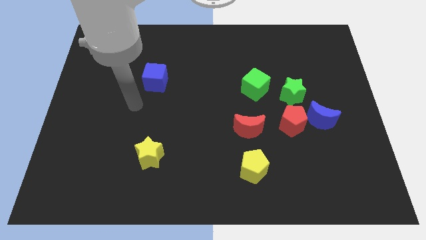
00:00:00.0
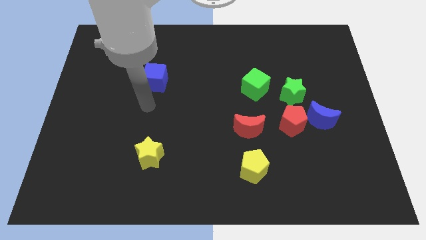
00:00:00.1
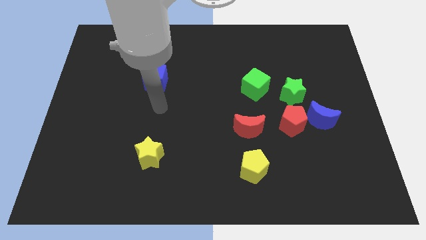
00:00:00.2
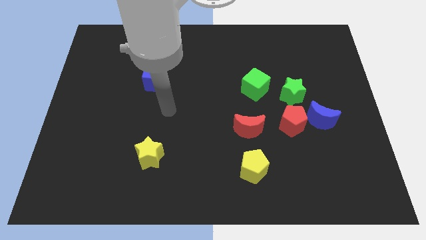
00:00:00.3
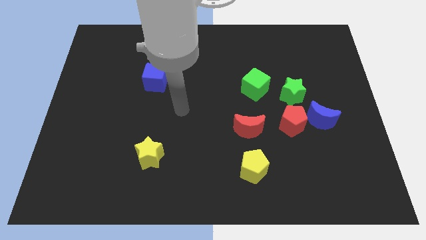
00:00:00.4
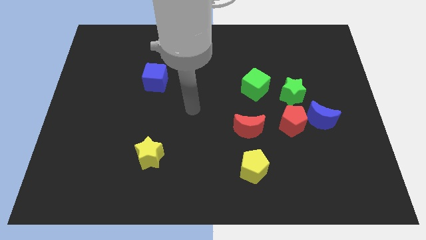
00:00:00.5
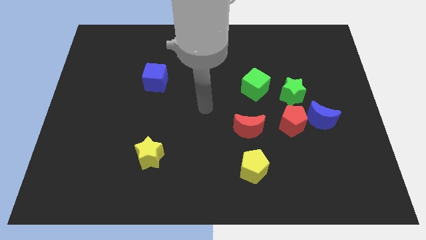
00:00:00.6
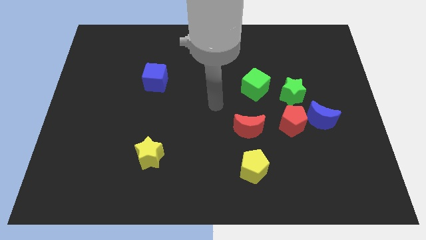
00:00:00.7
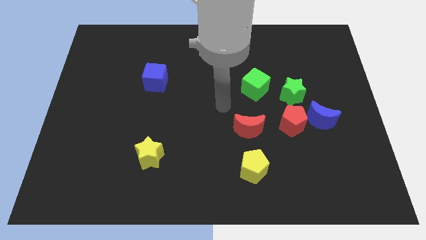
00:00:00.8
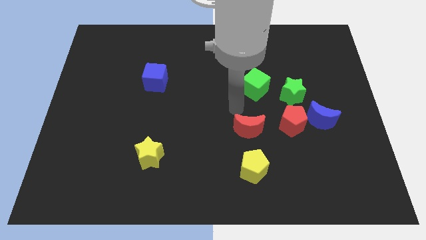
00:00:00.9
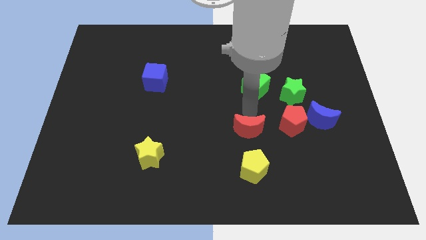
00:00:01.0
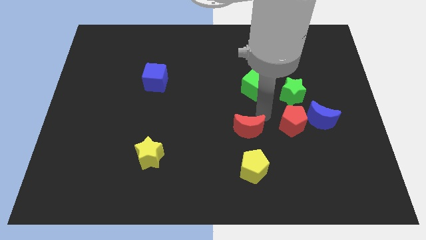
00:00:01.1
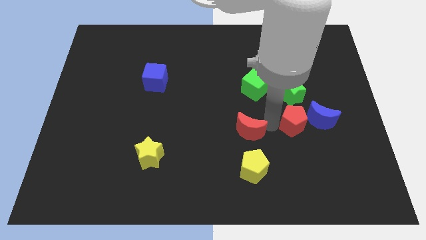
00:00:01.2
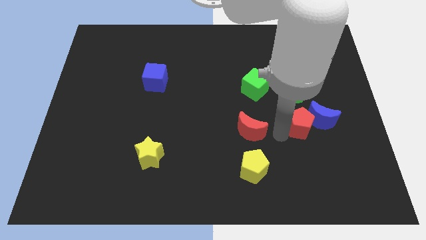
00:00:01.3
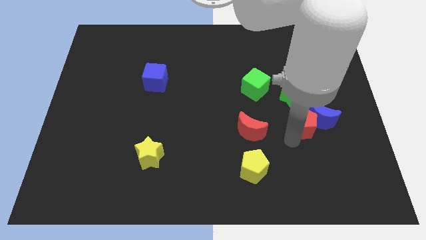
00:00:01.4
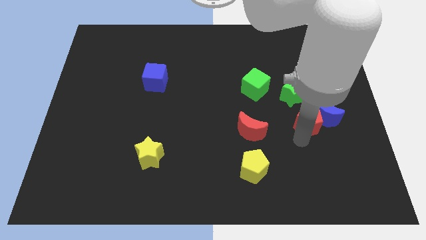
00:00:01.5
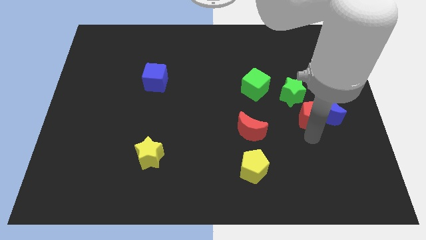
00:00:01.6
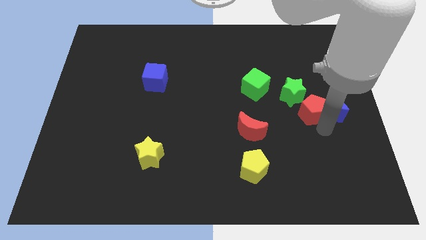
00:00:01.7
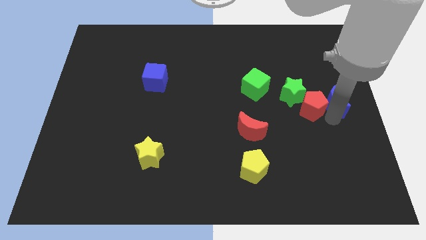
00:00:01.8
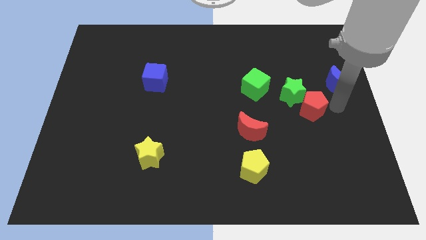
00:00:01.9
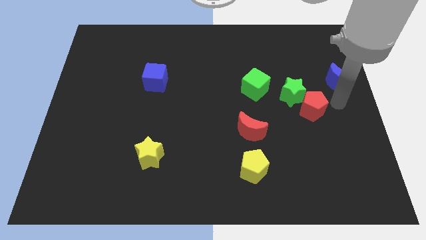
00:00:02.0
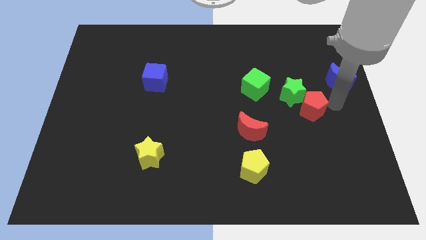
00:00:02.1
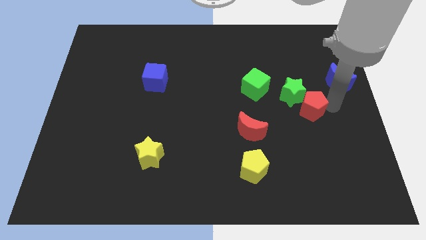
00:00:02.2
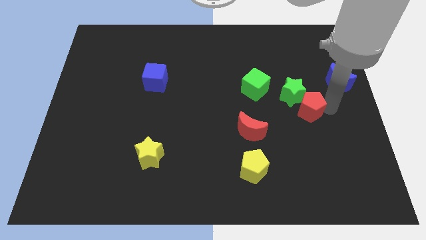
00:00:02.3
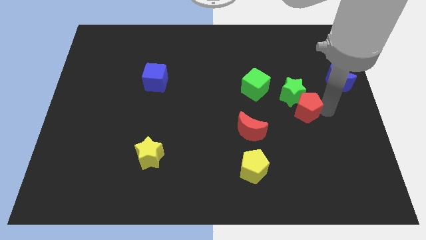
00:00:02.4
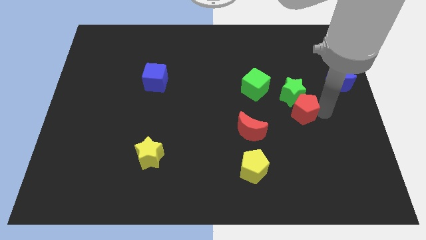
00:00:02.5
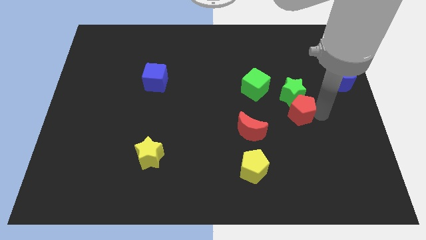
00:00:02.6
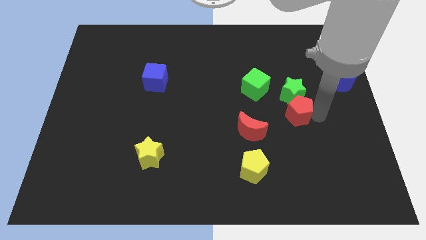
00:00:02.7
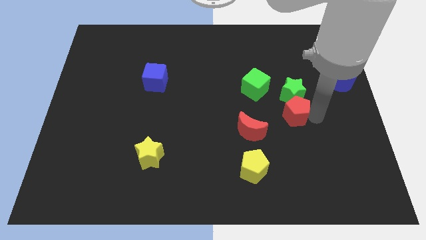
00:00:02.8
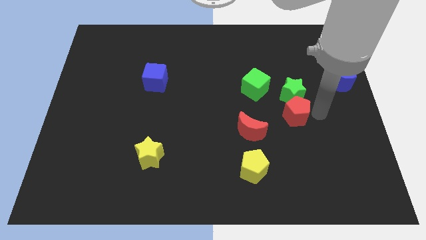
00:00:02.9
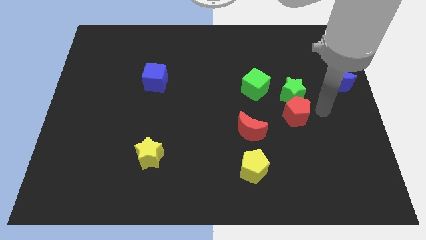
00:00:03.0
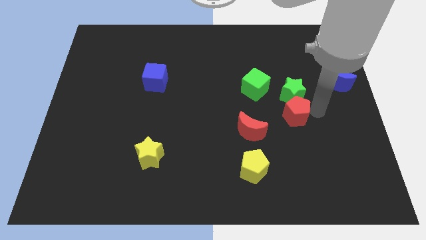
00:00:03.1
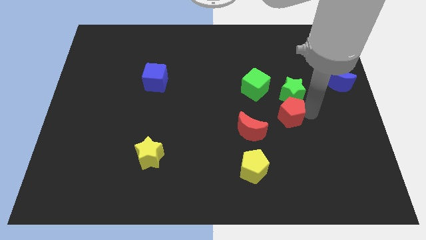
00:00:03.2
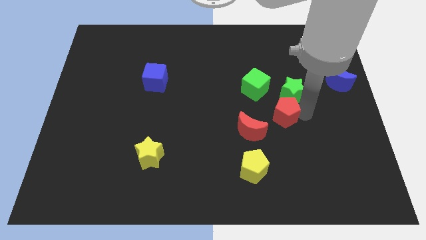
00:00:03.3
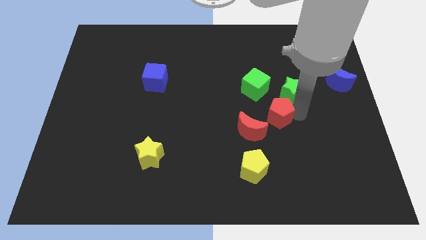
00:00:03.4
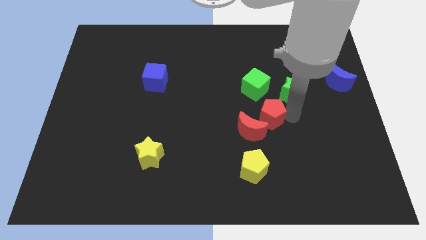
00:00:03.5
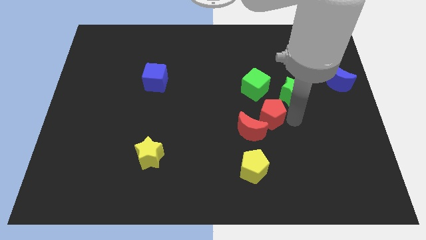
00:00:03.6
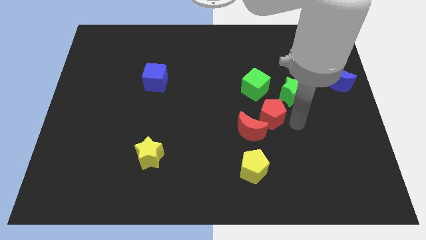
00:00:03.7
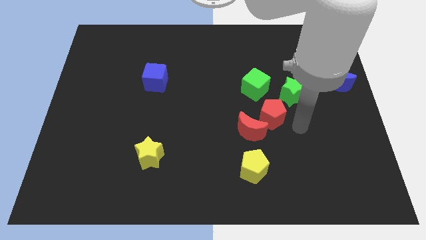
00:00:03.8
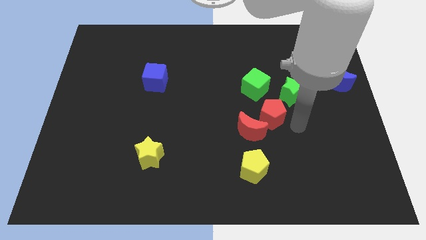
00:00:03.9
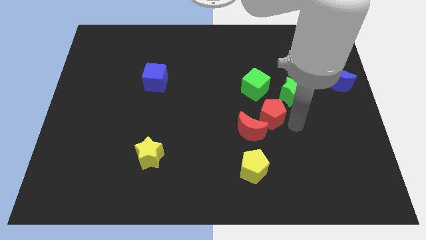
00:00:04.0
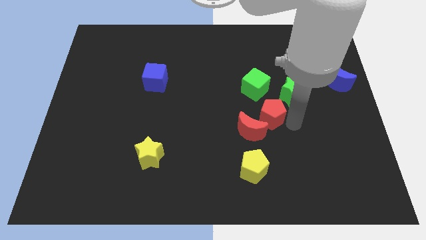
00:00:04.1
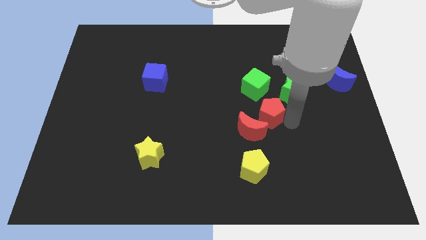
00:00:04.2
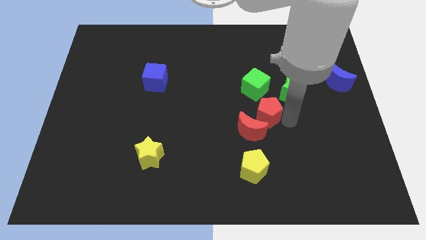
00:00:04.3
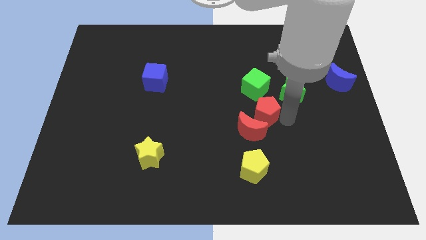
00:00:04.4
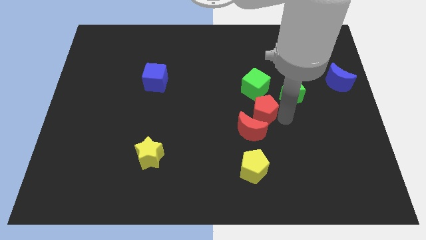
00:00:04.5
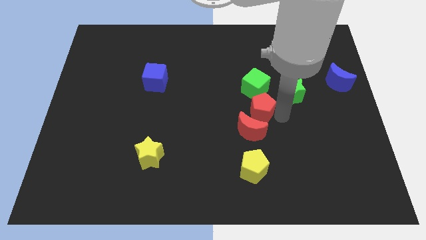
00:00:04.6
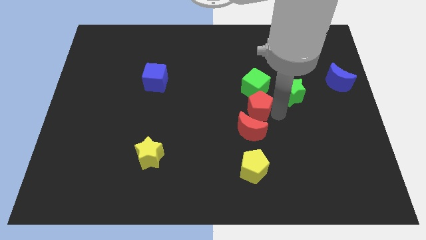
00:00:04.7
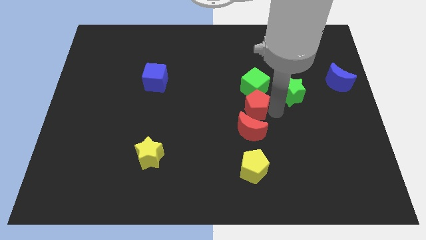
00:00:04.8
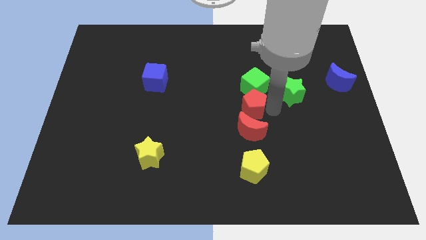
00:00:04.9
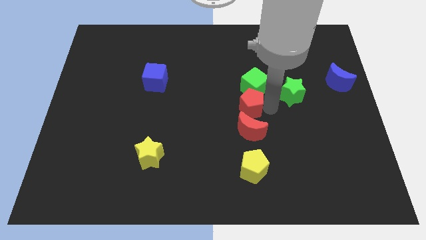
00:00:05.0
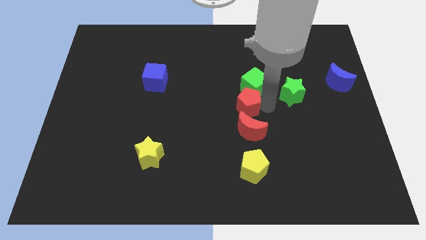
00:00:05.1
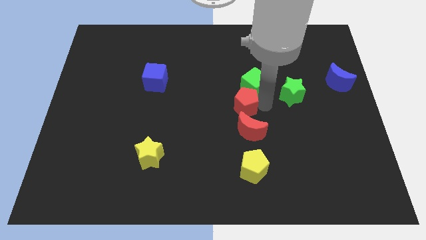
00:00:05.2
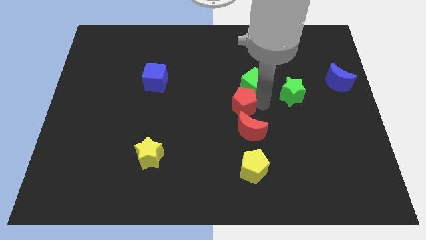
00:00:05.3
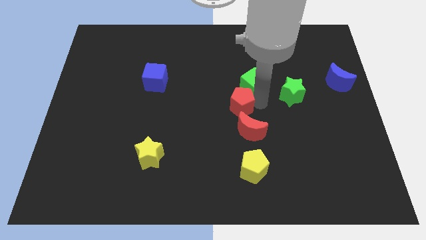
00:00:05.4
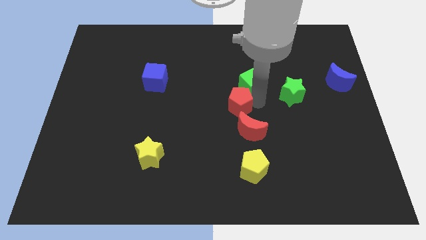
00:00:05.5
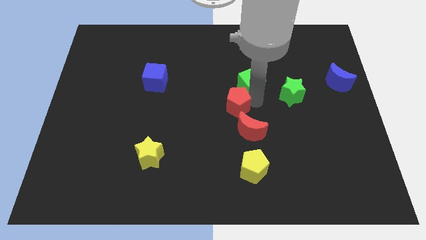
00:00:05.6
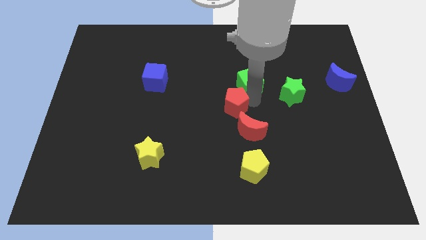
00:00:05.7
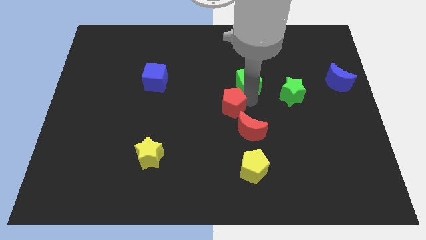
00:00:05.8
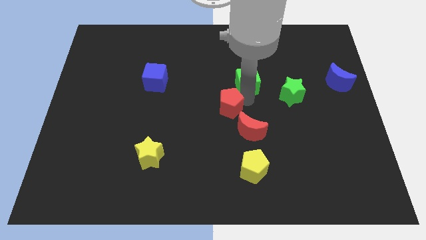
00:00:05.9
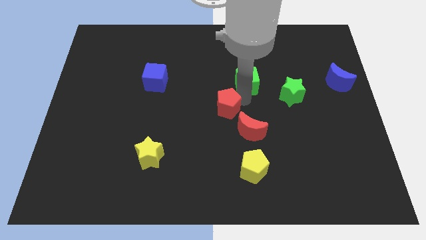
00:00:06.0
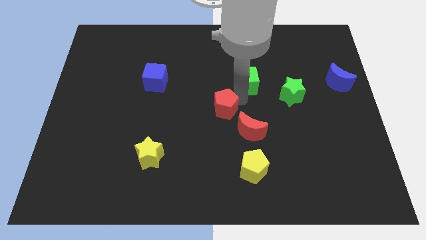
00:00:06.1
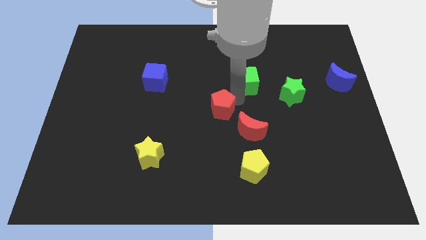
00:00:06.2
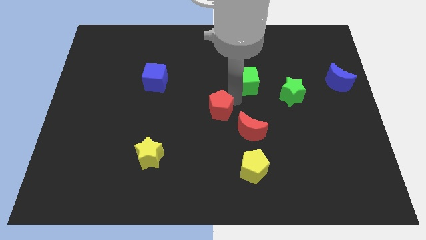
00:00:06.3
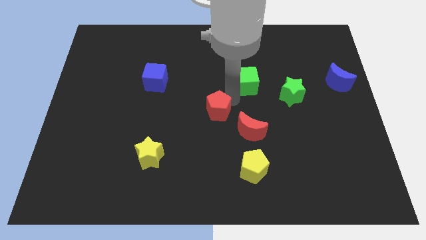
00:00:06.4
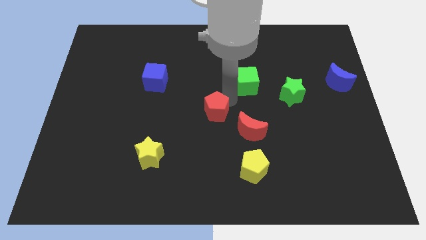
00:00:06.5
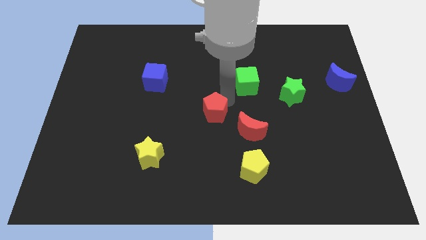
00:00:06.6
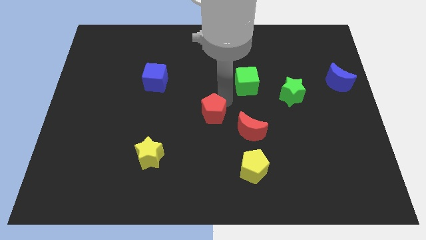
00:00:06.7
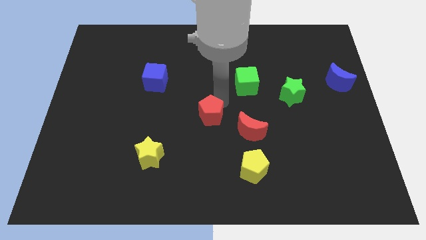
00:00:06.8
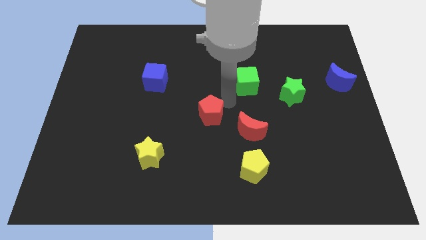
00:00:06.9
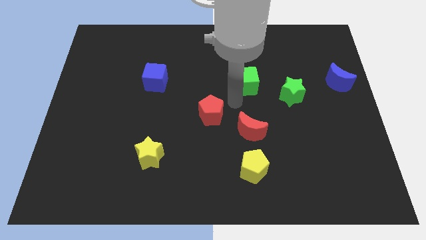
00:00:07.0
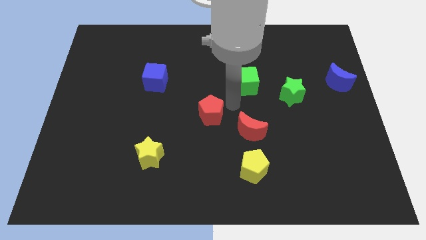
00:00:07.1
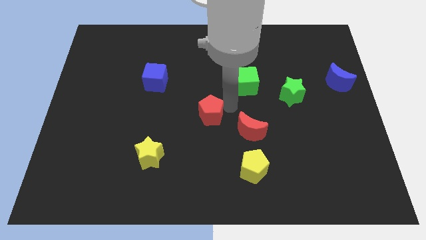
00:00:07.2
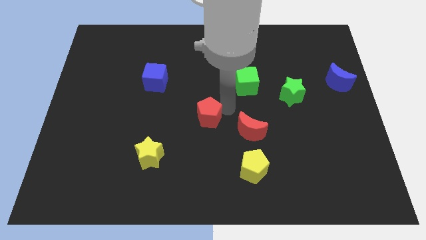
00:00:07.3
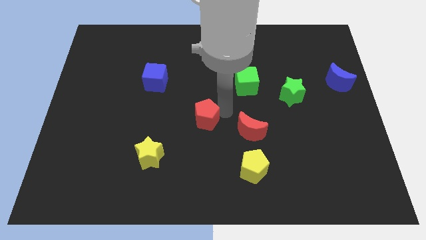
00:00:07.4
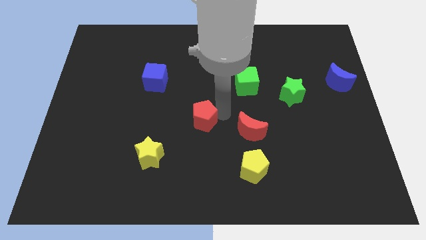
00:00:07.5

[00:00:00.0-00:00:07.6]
push the red pentagon to the left

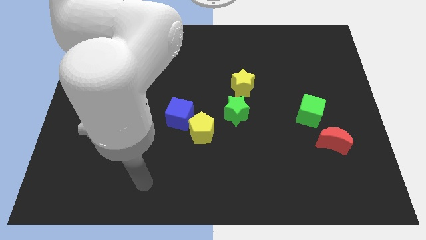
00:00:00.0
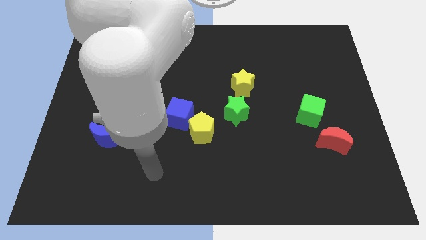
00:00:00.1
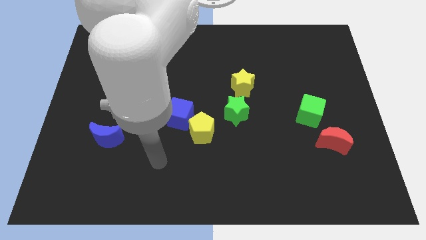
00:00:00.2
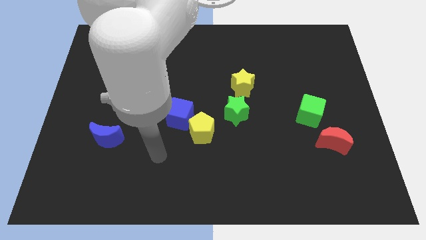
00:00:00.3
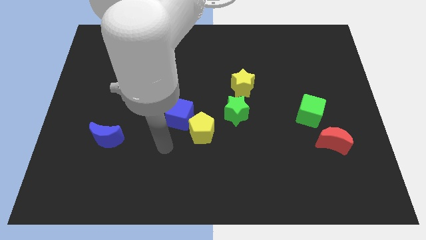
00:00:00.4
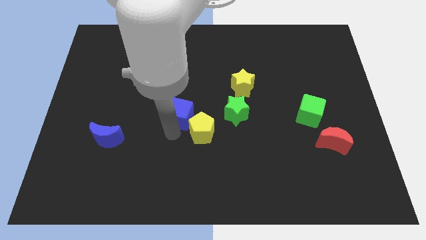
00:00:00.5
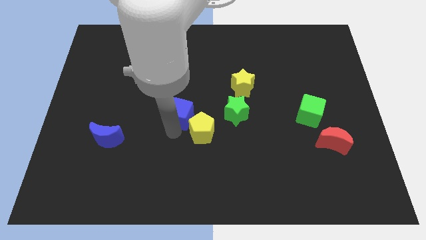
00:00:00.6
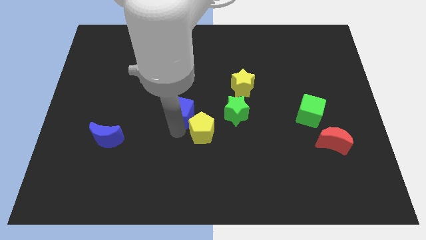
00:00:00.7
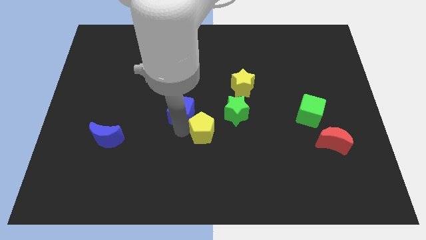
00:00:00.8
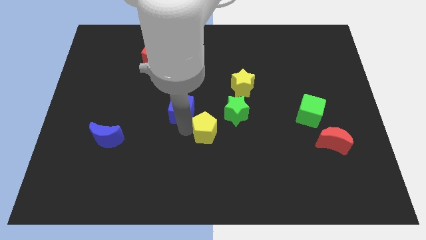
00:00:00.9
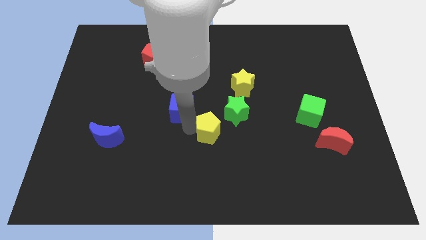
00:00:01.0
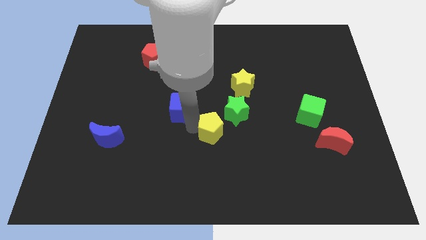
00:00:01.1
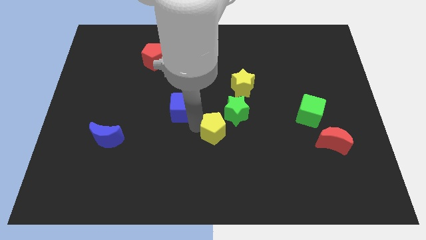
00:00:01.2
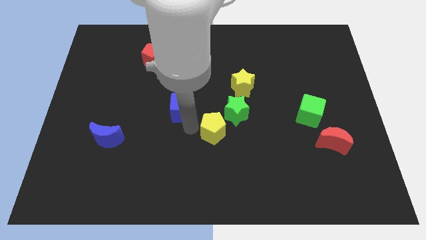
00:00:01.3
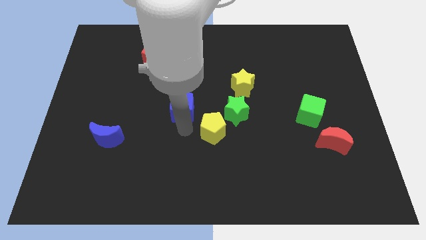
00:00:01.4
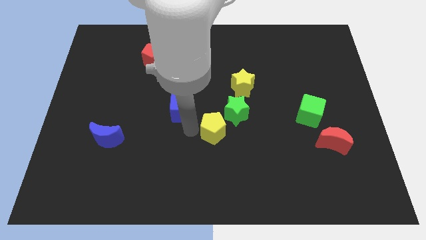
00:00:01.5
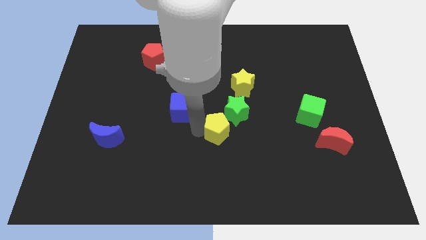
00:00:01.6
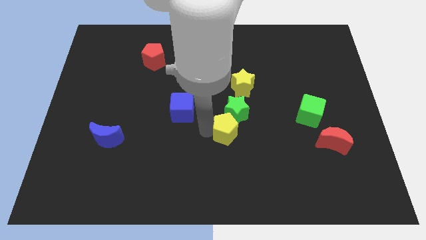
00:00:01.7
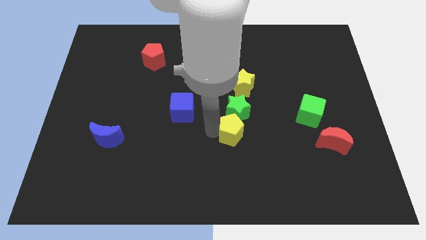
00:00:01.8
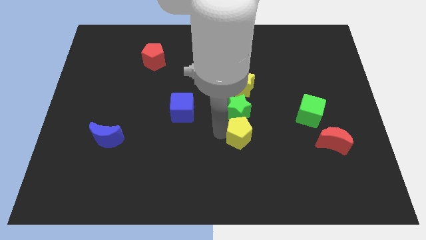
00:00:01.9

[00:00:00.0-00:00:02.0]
slide the yellow pentagon somewhat right
